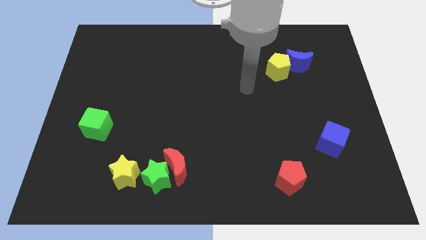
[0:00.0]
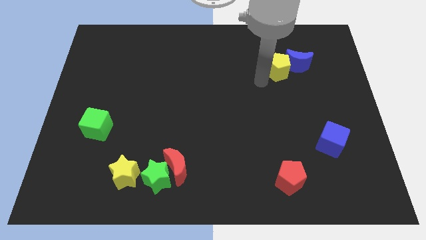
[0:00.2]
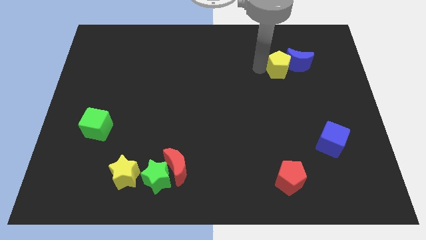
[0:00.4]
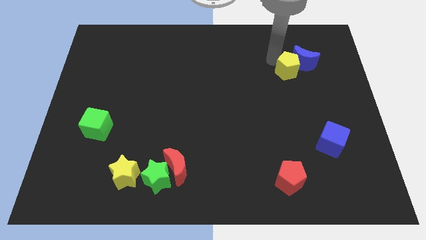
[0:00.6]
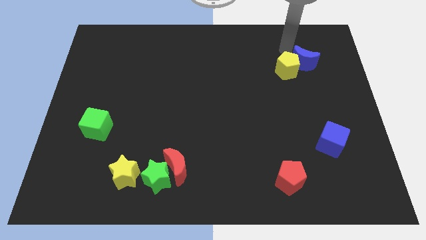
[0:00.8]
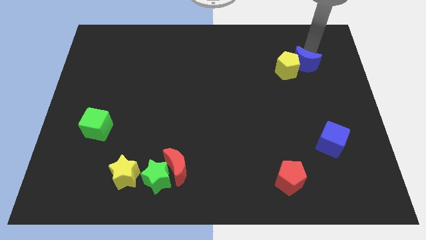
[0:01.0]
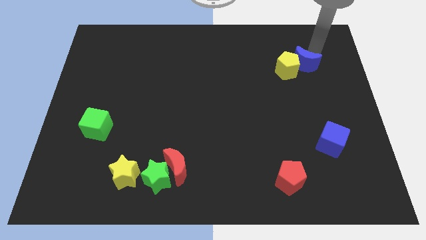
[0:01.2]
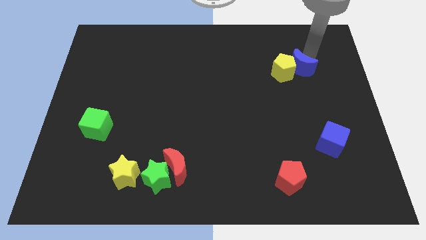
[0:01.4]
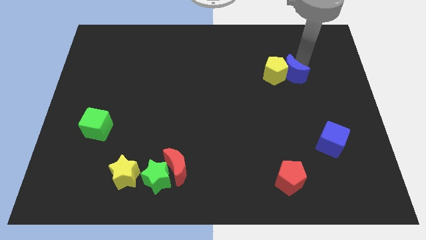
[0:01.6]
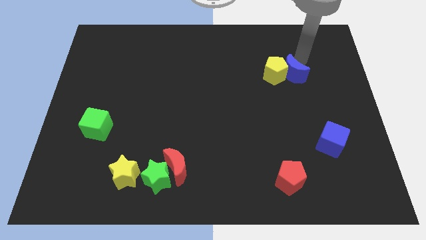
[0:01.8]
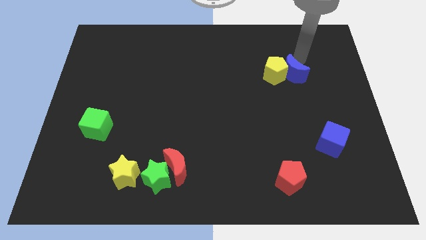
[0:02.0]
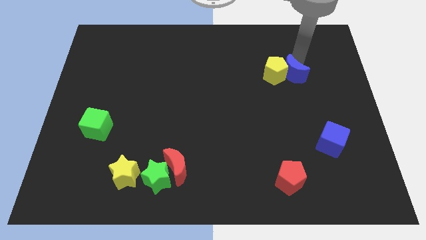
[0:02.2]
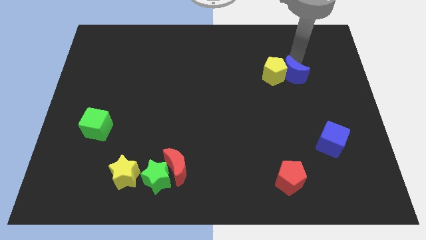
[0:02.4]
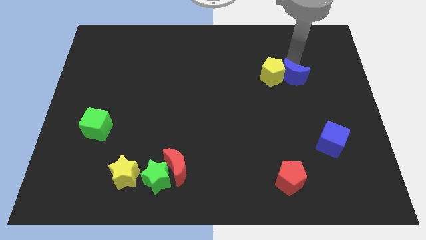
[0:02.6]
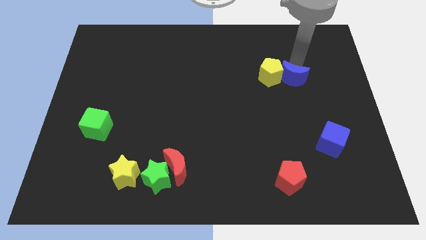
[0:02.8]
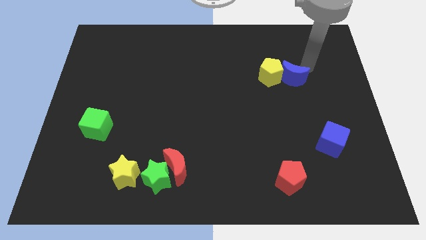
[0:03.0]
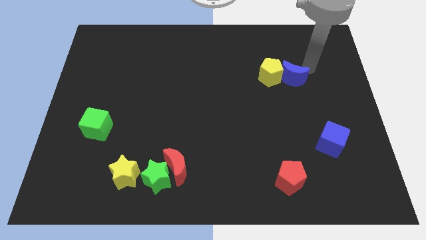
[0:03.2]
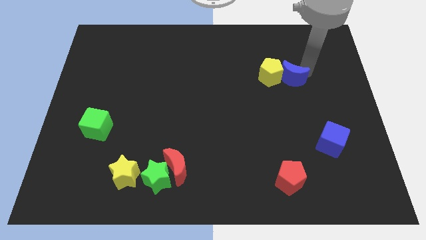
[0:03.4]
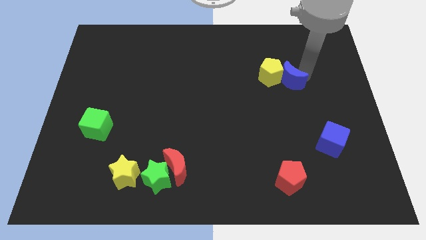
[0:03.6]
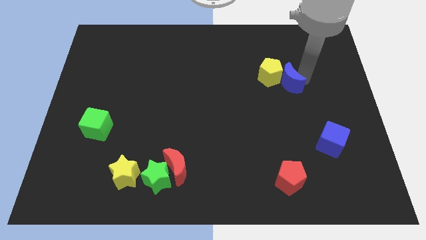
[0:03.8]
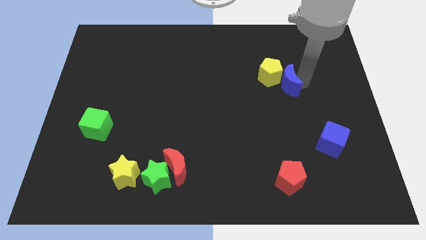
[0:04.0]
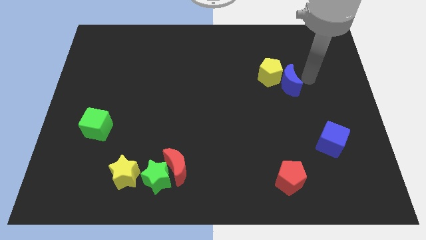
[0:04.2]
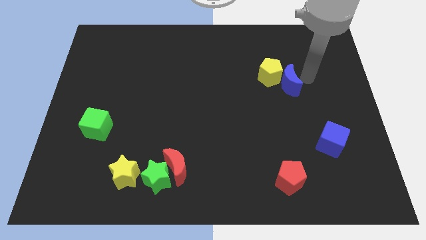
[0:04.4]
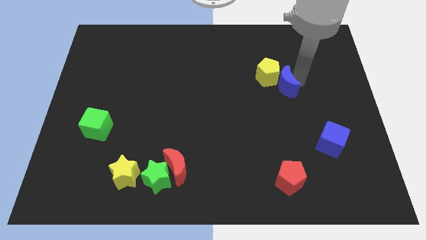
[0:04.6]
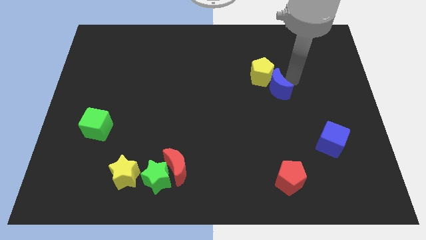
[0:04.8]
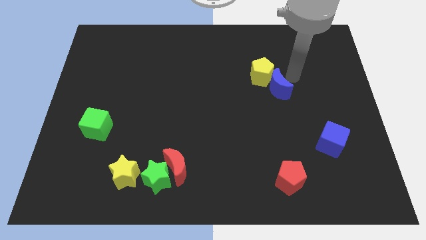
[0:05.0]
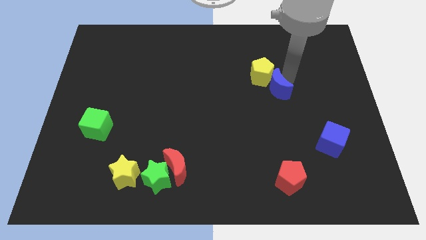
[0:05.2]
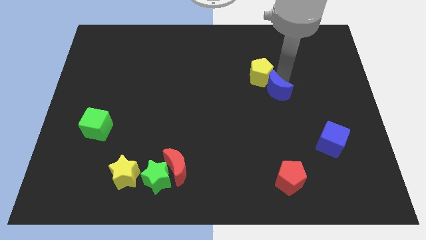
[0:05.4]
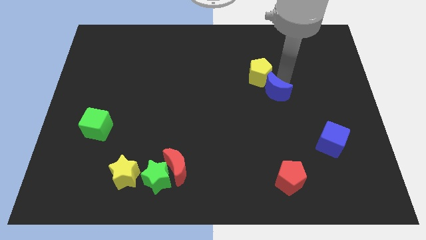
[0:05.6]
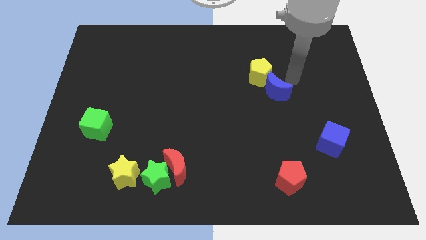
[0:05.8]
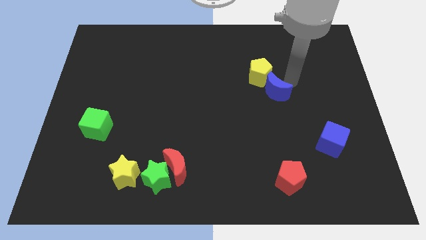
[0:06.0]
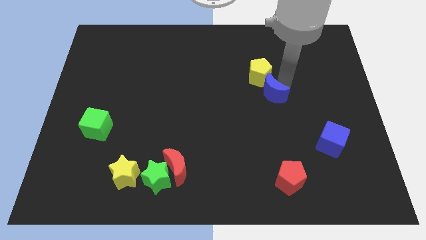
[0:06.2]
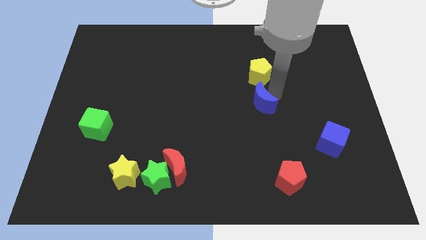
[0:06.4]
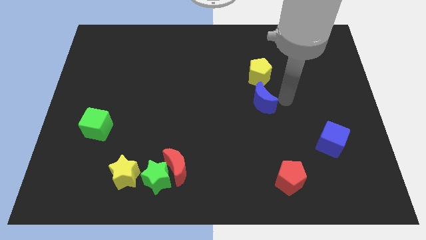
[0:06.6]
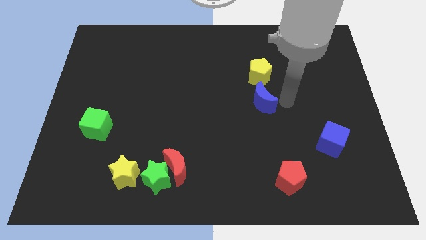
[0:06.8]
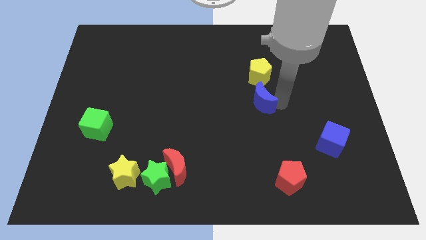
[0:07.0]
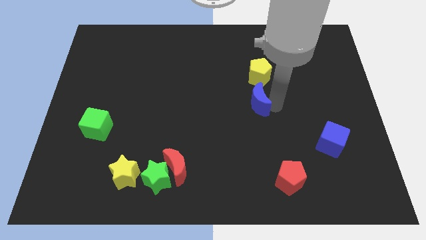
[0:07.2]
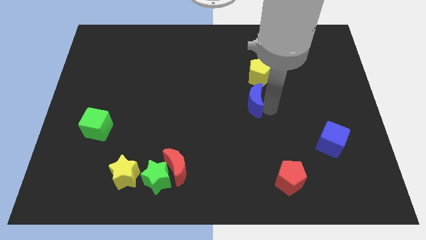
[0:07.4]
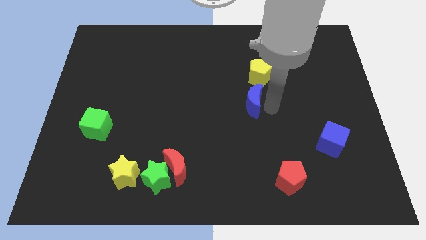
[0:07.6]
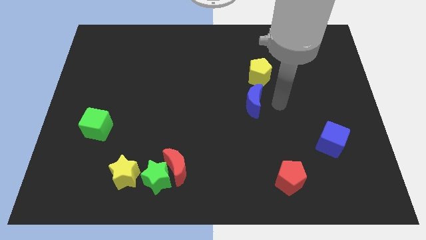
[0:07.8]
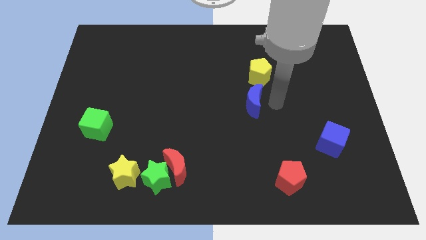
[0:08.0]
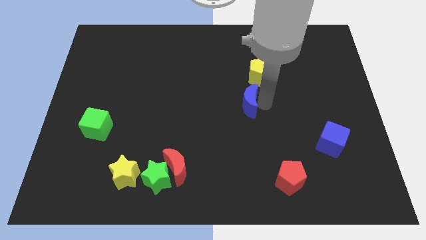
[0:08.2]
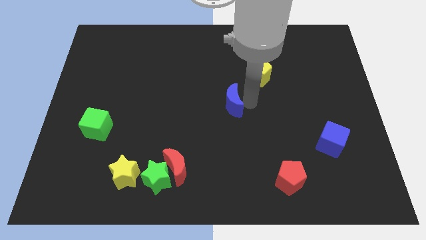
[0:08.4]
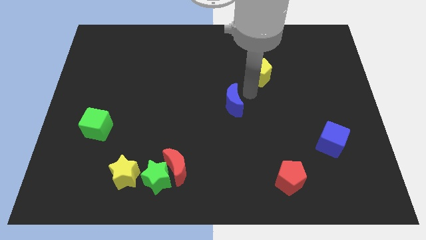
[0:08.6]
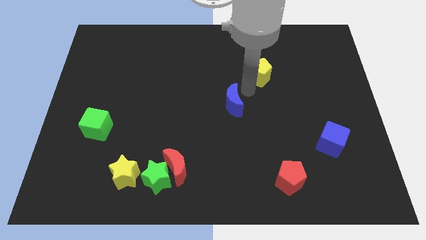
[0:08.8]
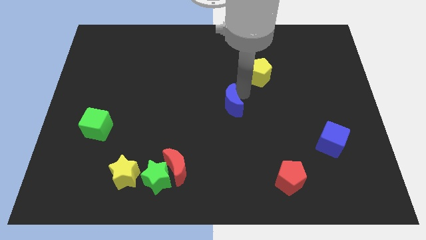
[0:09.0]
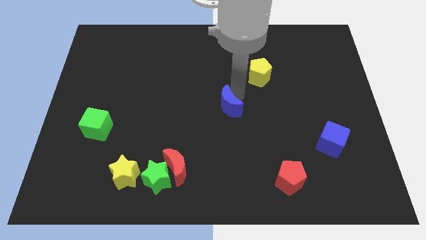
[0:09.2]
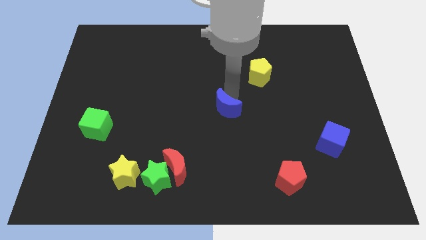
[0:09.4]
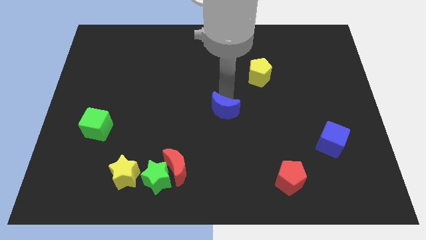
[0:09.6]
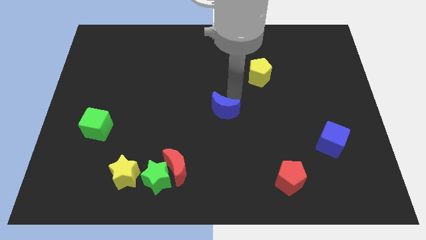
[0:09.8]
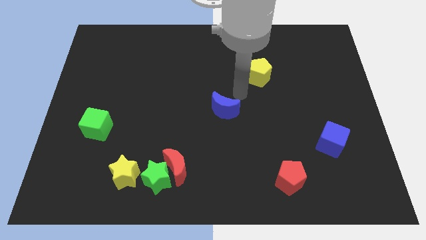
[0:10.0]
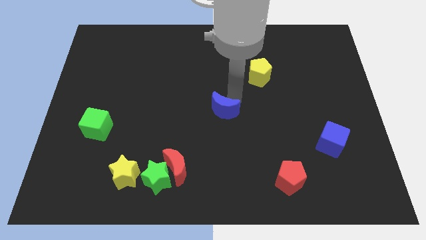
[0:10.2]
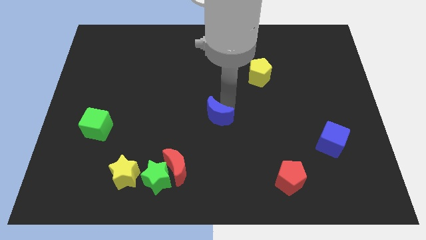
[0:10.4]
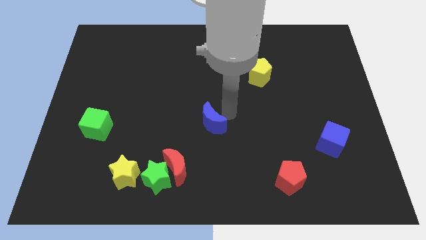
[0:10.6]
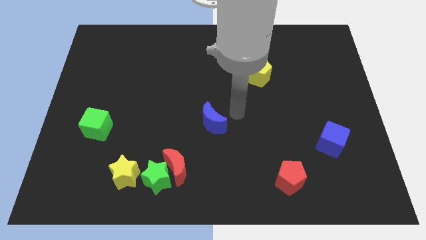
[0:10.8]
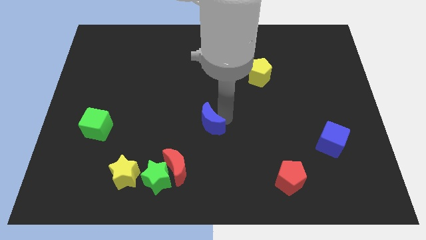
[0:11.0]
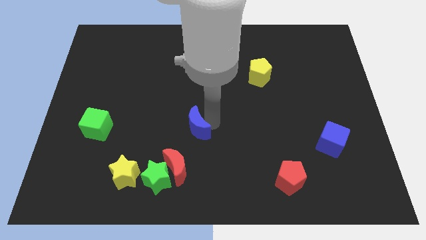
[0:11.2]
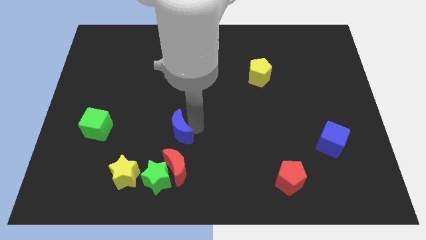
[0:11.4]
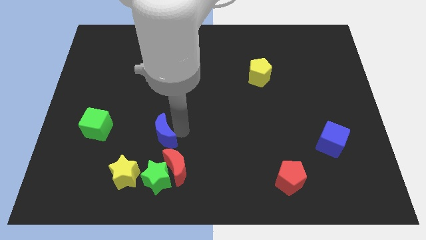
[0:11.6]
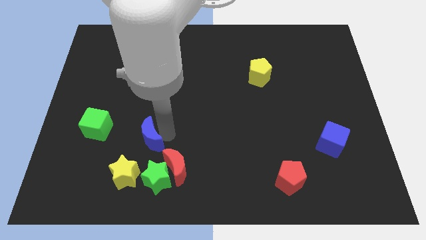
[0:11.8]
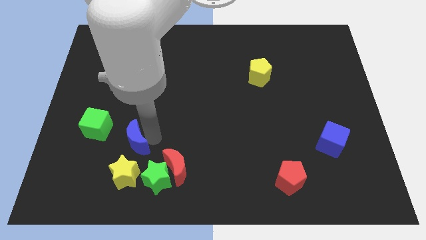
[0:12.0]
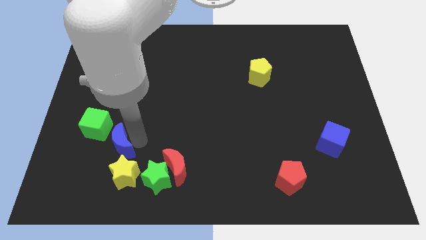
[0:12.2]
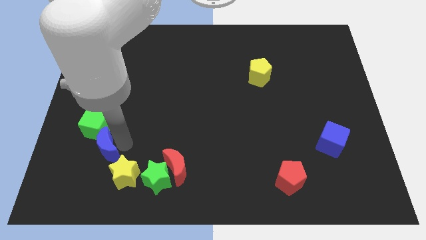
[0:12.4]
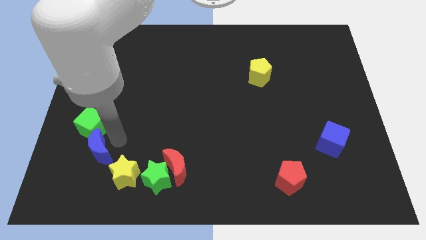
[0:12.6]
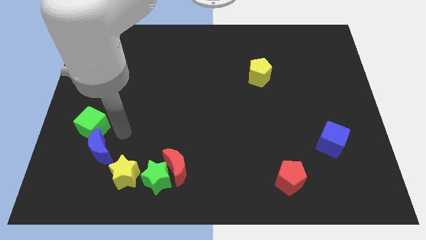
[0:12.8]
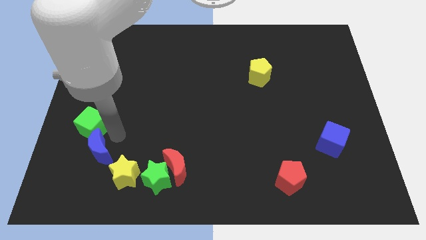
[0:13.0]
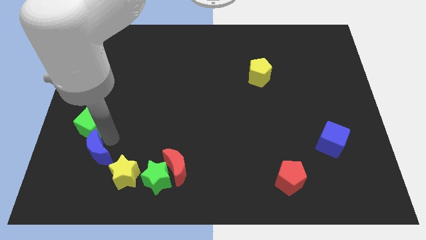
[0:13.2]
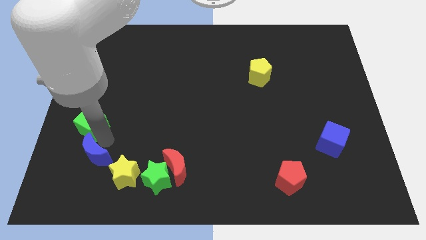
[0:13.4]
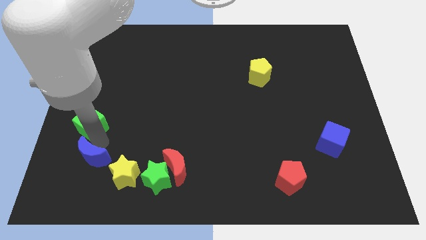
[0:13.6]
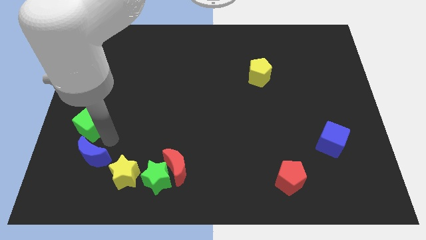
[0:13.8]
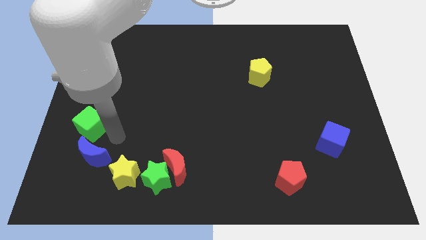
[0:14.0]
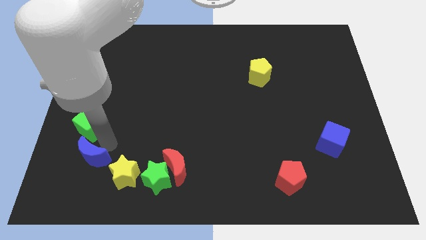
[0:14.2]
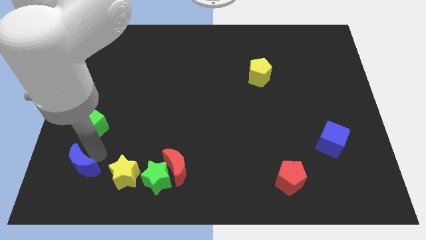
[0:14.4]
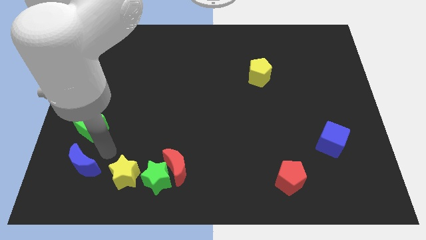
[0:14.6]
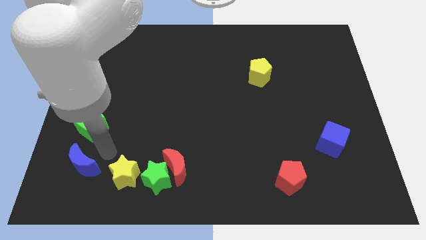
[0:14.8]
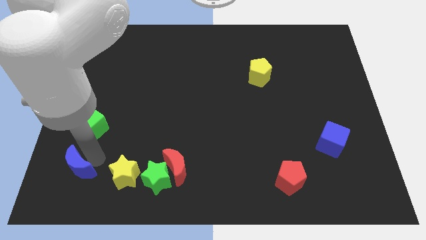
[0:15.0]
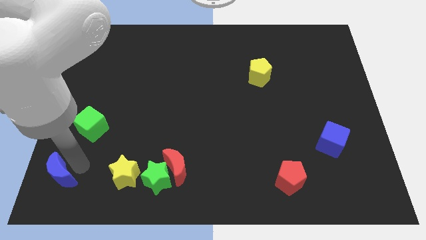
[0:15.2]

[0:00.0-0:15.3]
slide the blue moon to the bottom left
